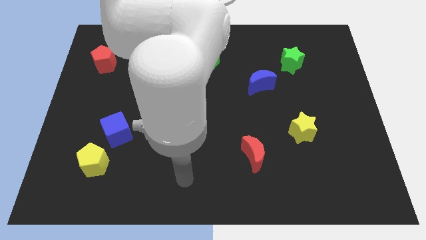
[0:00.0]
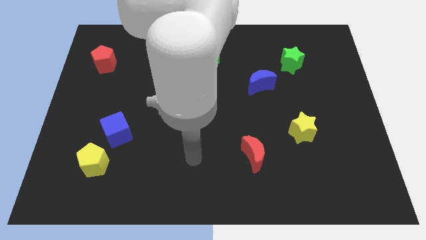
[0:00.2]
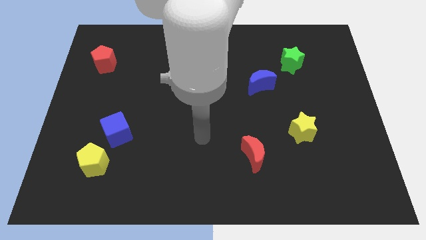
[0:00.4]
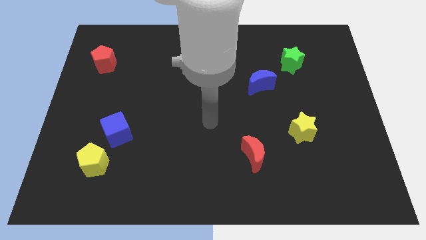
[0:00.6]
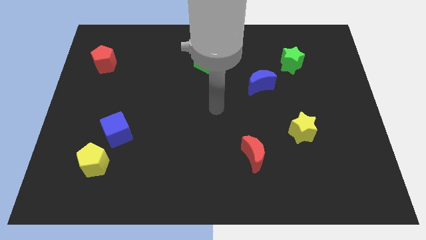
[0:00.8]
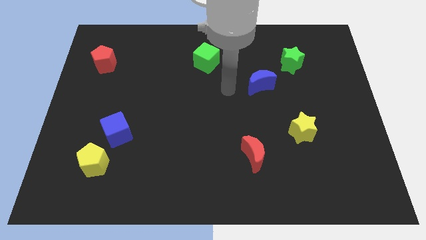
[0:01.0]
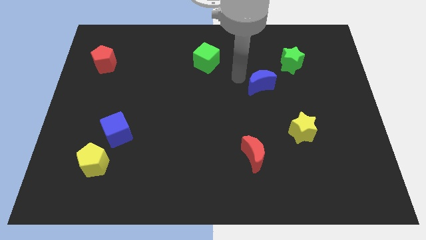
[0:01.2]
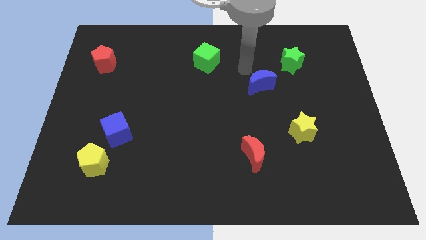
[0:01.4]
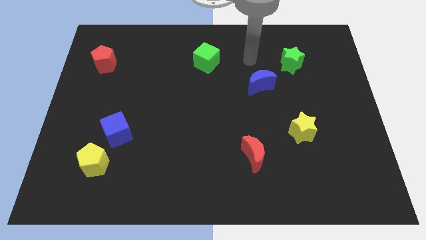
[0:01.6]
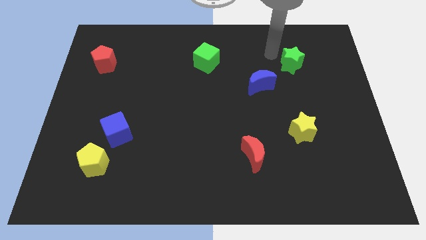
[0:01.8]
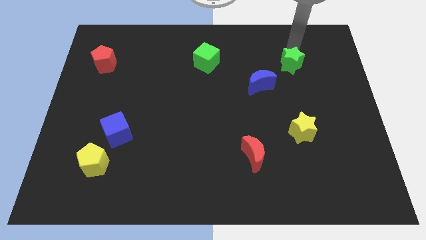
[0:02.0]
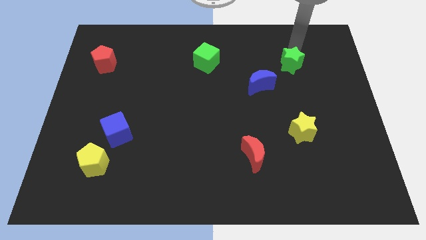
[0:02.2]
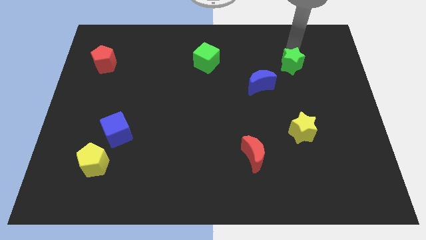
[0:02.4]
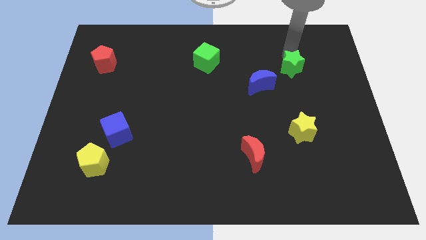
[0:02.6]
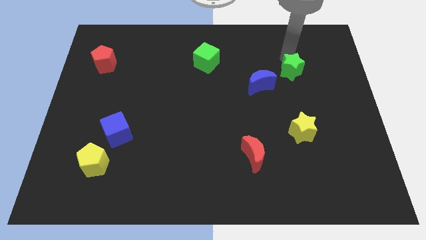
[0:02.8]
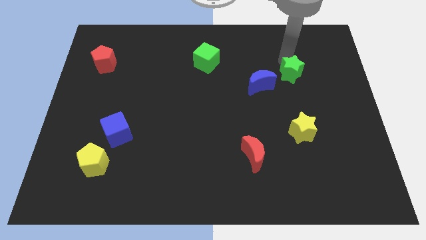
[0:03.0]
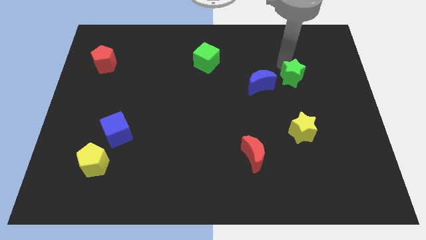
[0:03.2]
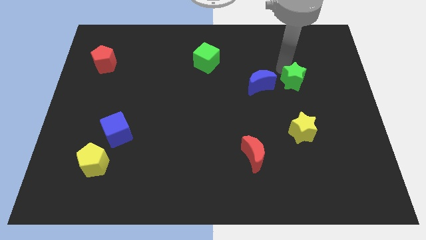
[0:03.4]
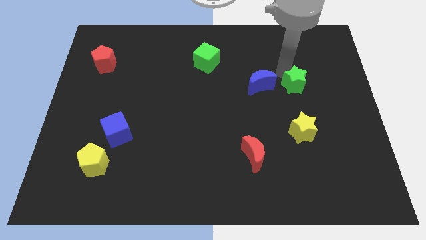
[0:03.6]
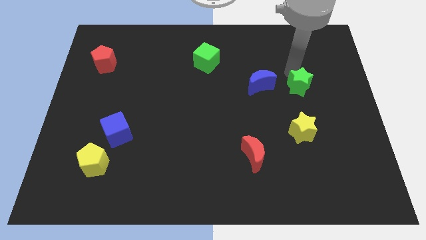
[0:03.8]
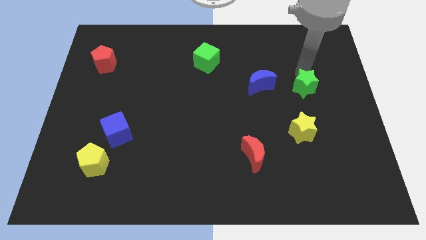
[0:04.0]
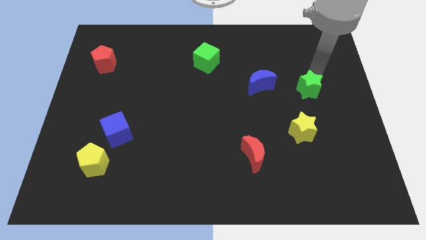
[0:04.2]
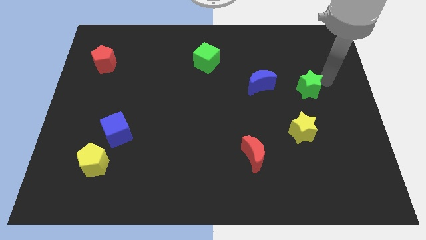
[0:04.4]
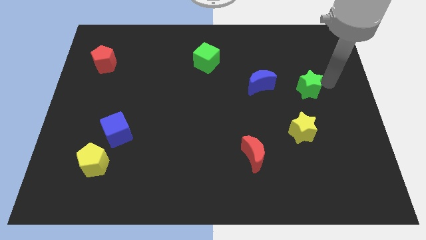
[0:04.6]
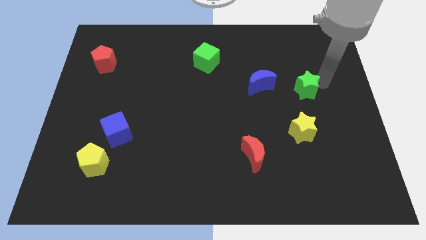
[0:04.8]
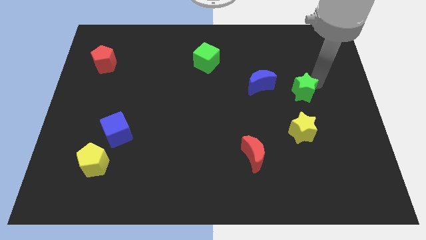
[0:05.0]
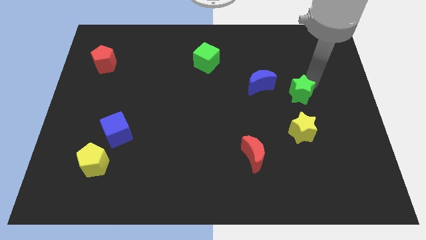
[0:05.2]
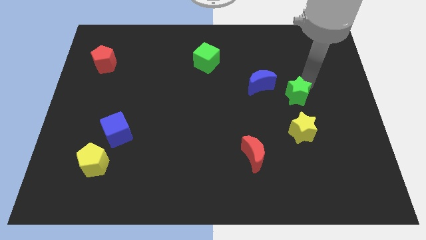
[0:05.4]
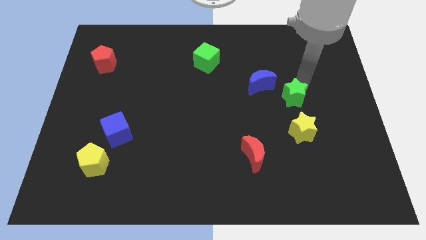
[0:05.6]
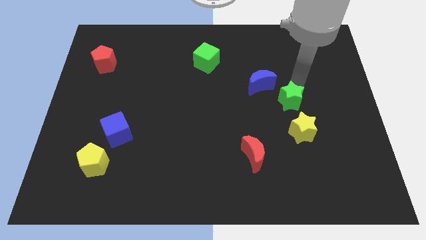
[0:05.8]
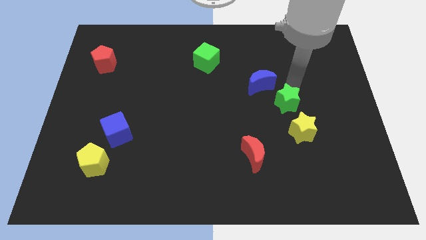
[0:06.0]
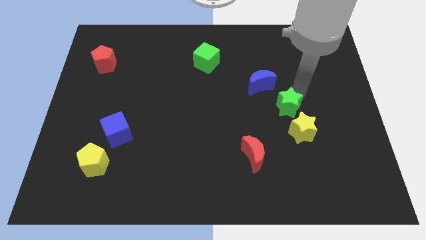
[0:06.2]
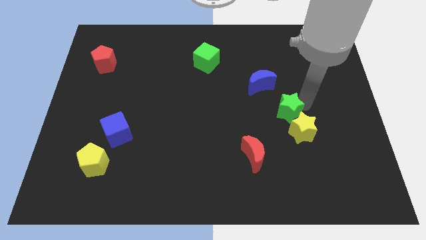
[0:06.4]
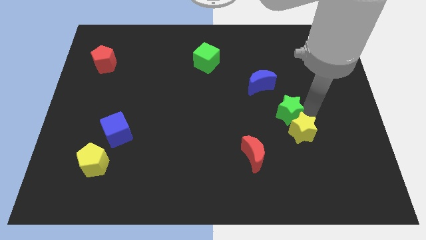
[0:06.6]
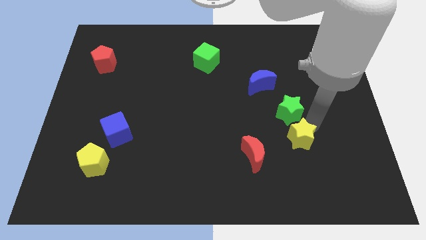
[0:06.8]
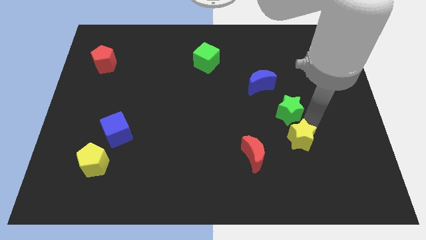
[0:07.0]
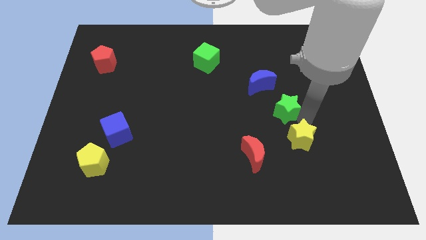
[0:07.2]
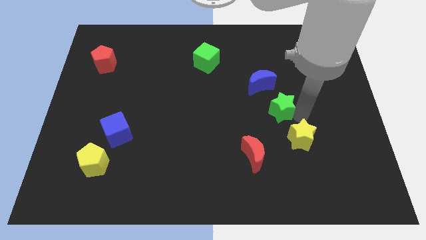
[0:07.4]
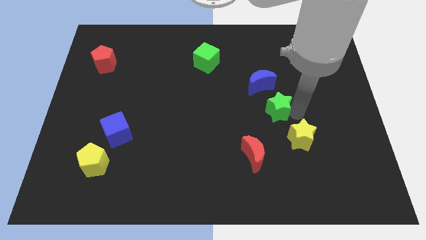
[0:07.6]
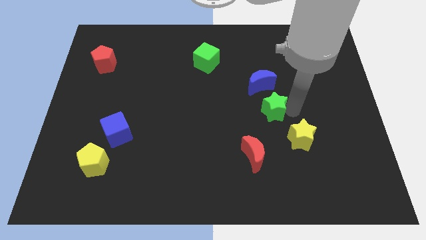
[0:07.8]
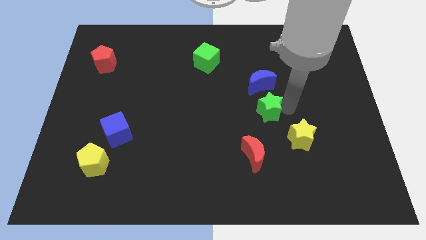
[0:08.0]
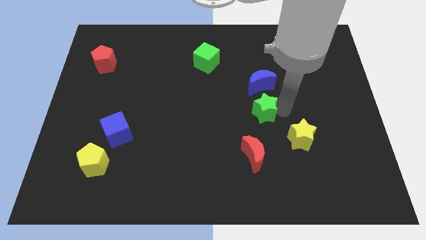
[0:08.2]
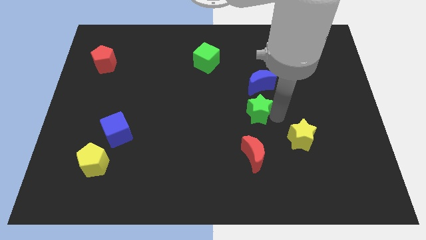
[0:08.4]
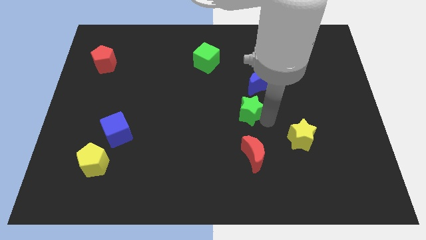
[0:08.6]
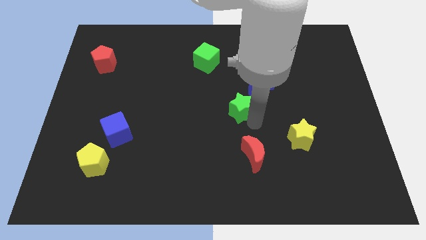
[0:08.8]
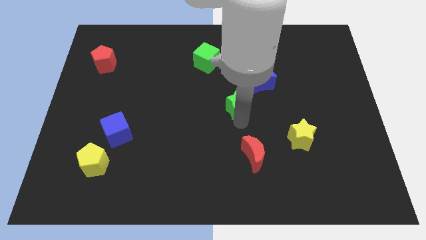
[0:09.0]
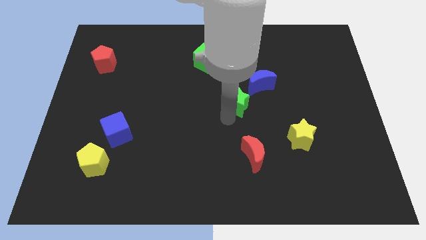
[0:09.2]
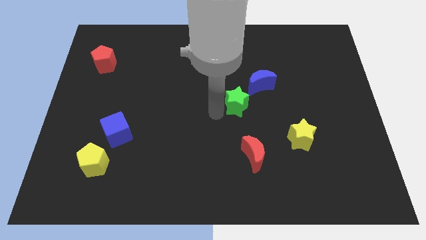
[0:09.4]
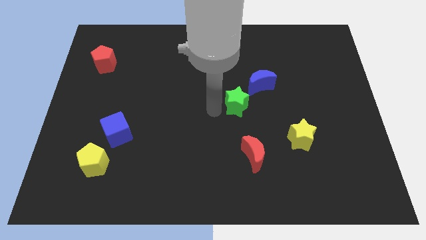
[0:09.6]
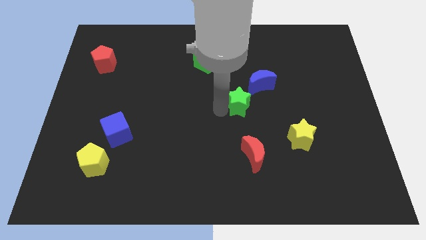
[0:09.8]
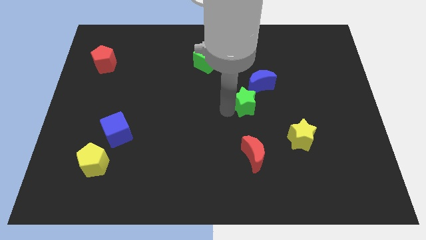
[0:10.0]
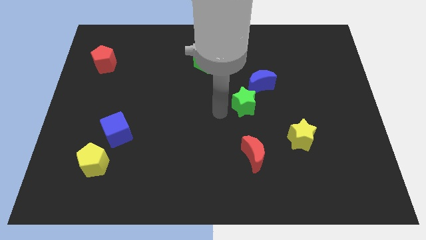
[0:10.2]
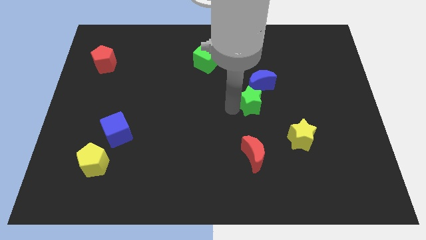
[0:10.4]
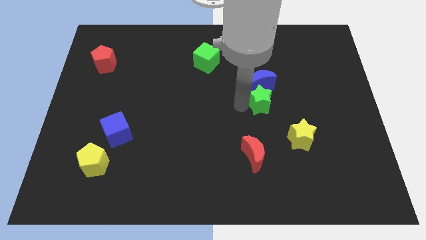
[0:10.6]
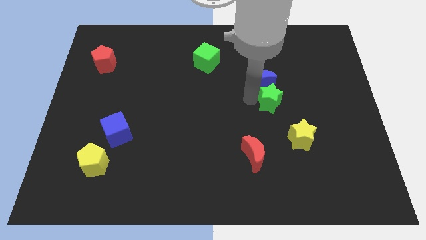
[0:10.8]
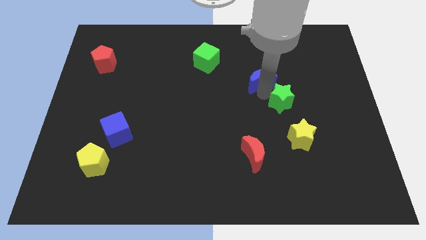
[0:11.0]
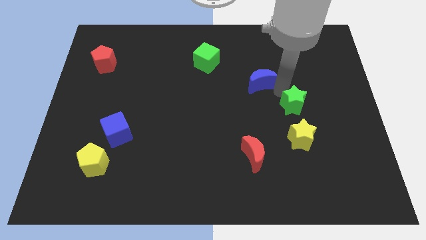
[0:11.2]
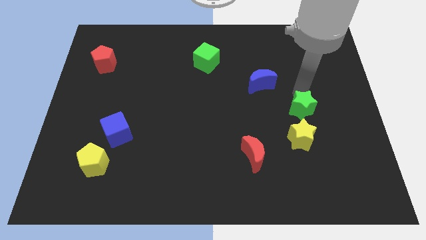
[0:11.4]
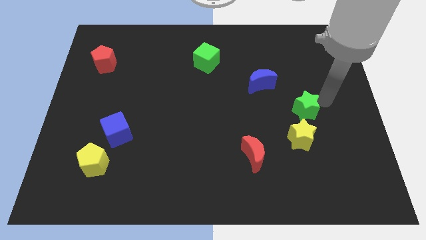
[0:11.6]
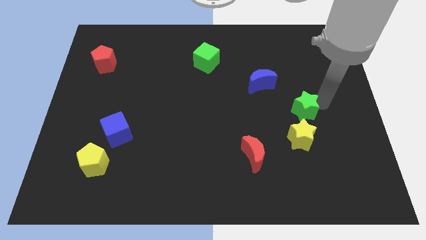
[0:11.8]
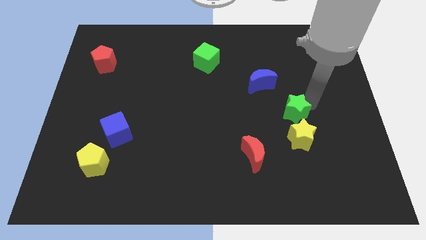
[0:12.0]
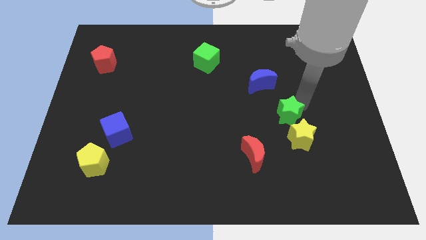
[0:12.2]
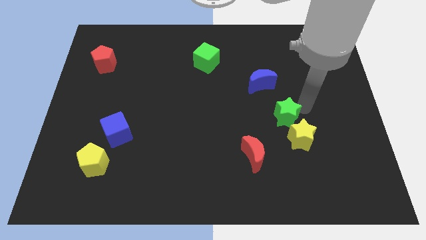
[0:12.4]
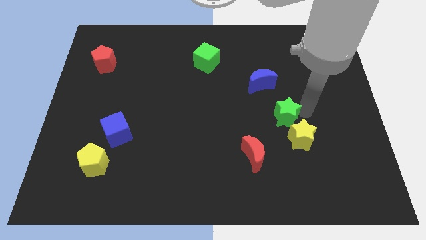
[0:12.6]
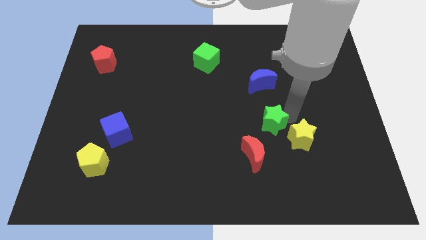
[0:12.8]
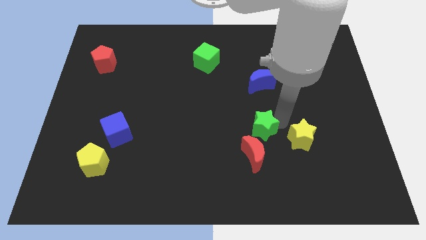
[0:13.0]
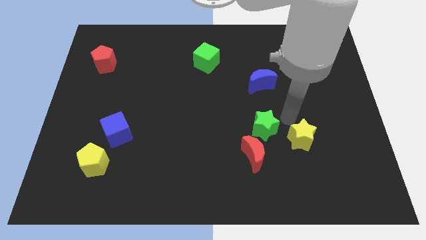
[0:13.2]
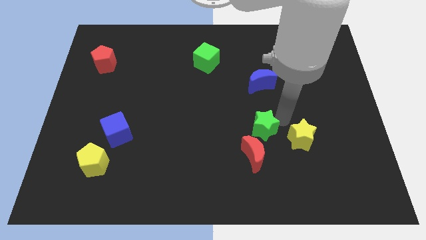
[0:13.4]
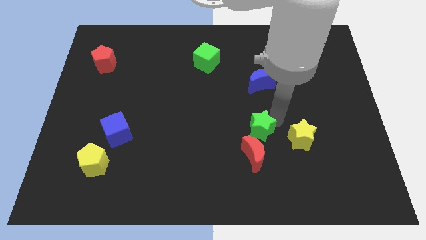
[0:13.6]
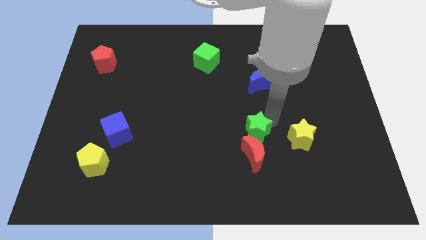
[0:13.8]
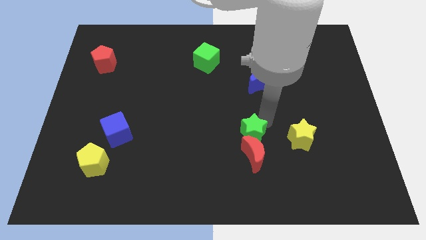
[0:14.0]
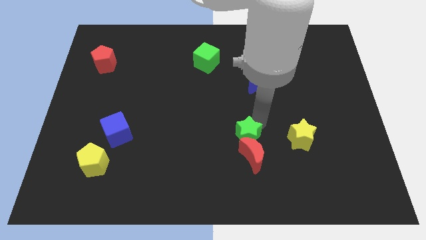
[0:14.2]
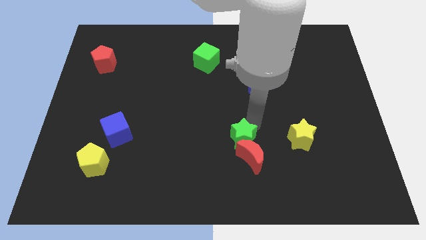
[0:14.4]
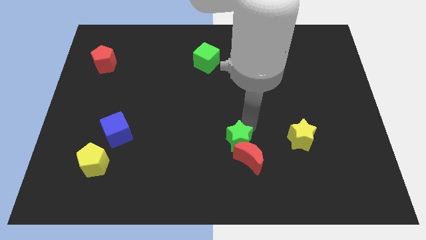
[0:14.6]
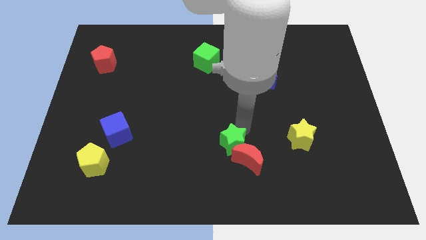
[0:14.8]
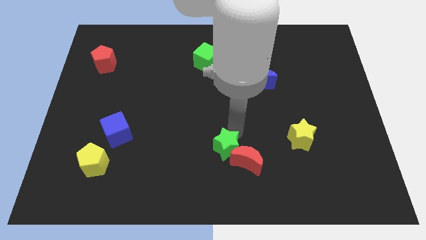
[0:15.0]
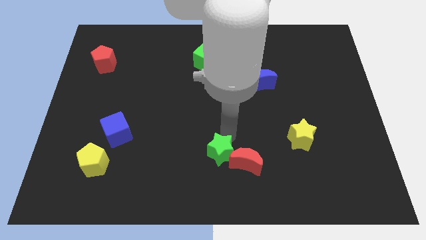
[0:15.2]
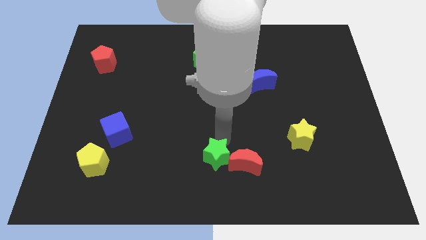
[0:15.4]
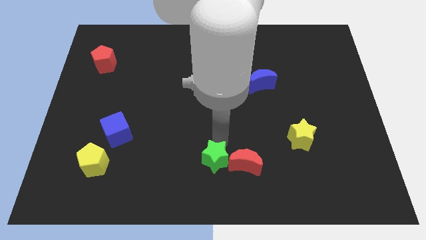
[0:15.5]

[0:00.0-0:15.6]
push the green star to the bottom left side of the red moon
